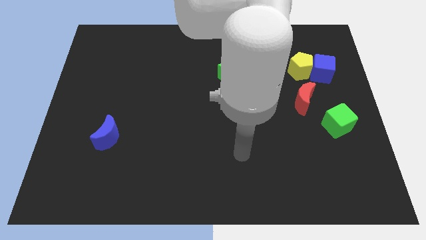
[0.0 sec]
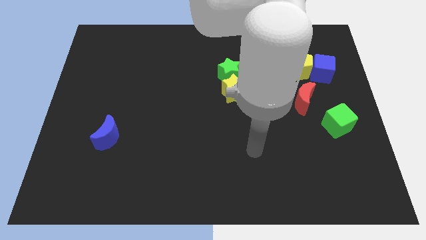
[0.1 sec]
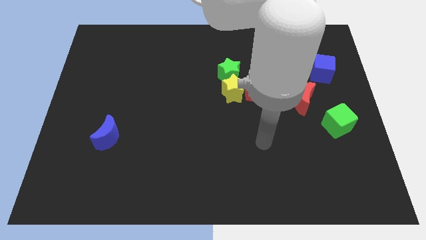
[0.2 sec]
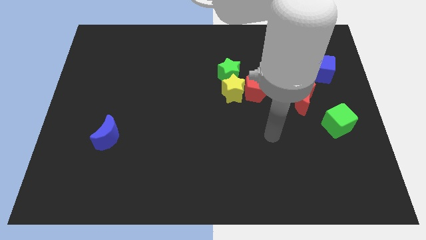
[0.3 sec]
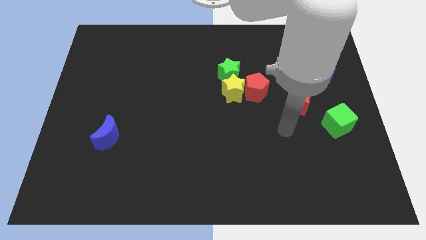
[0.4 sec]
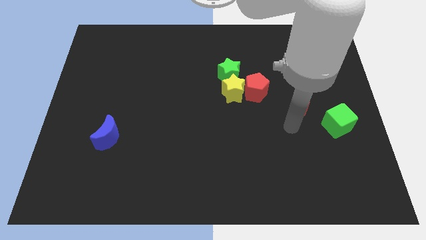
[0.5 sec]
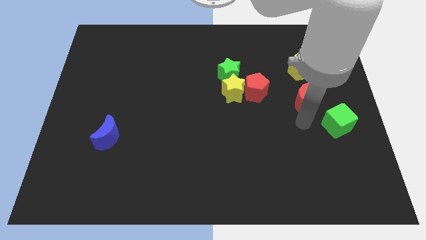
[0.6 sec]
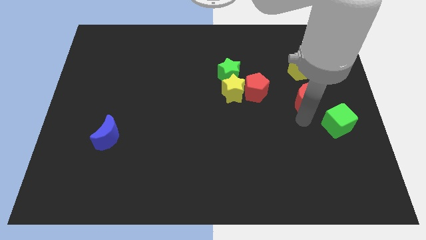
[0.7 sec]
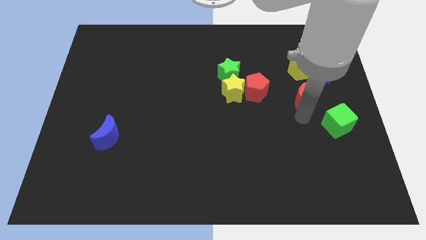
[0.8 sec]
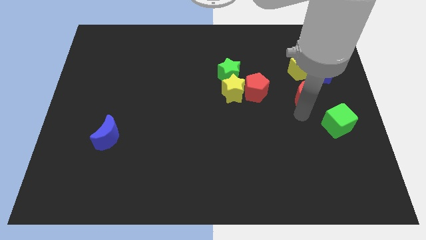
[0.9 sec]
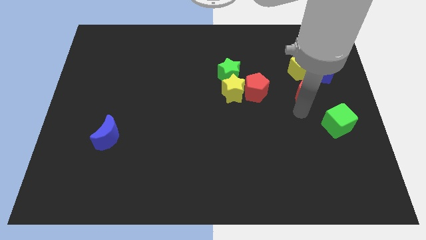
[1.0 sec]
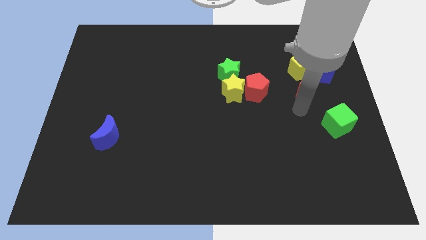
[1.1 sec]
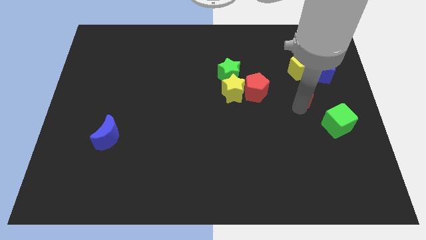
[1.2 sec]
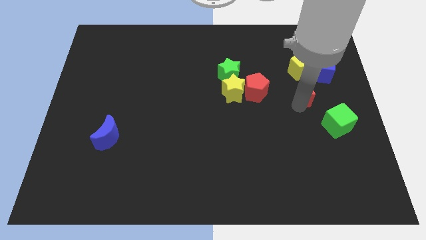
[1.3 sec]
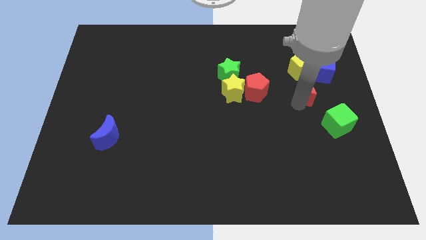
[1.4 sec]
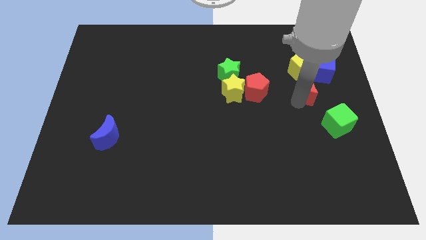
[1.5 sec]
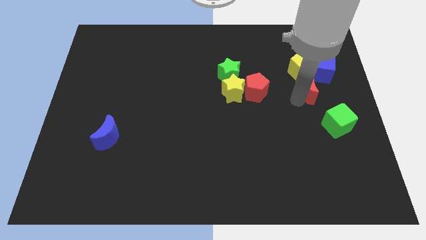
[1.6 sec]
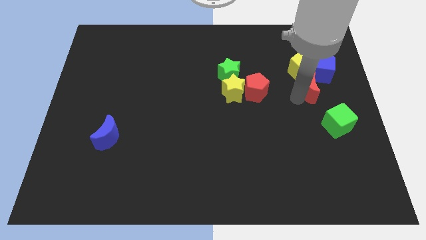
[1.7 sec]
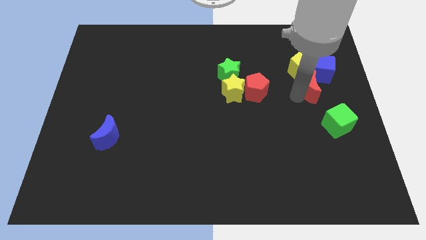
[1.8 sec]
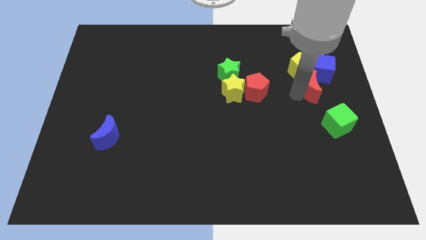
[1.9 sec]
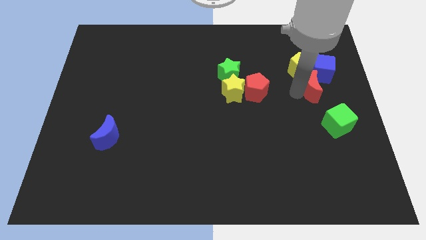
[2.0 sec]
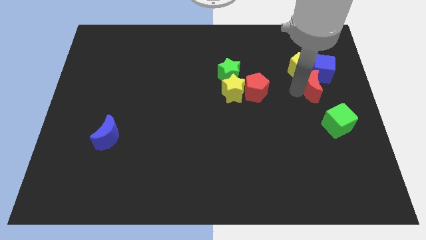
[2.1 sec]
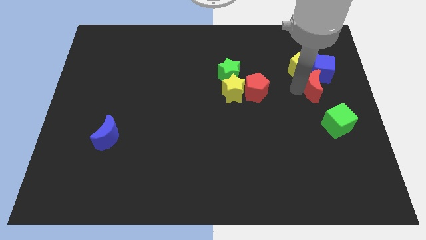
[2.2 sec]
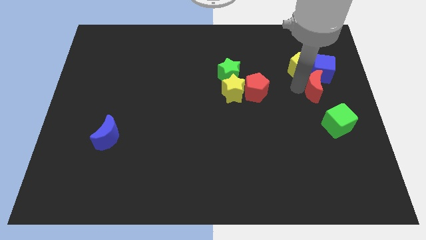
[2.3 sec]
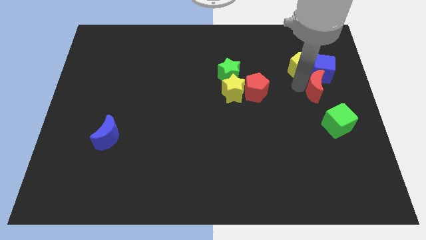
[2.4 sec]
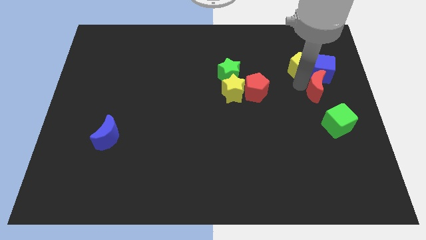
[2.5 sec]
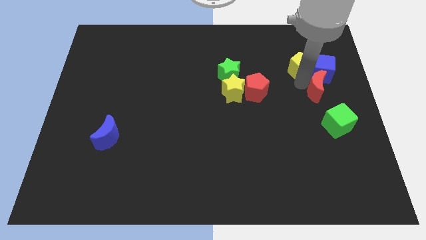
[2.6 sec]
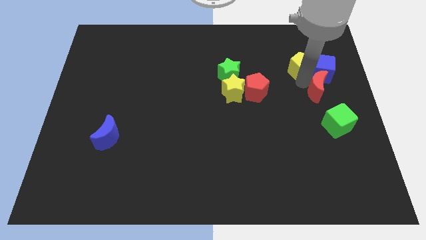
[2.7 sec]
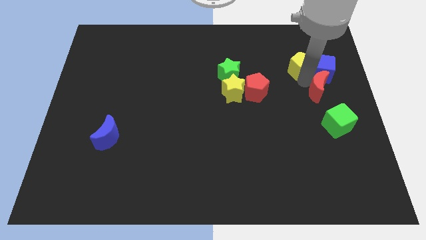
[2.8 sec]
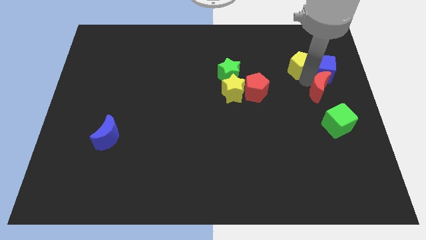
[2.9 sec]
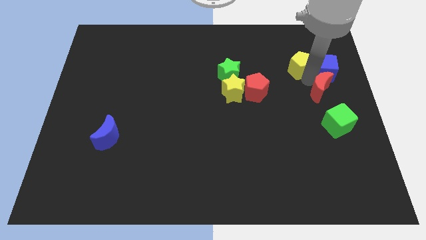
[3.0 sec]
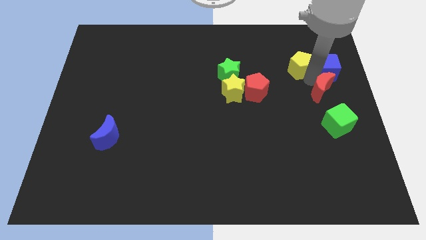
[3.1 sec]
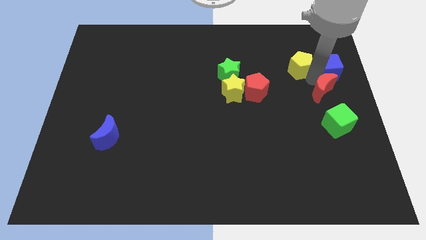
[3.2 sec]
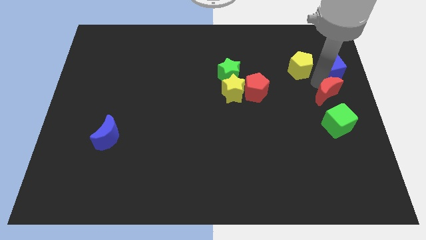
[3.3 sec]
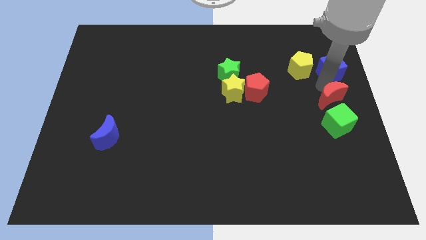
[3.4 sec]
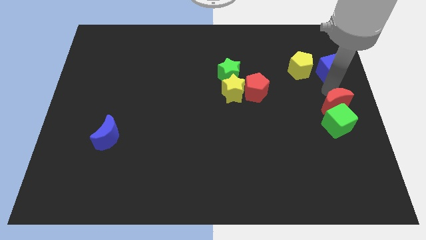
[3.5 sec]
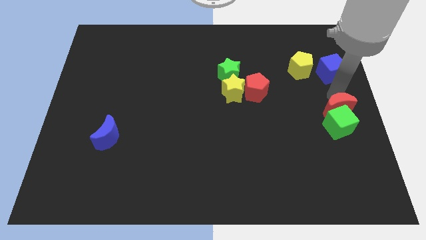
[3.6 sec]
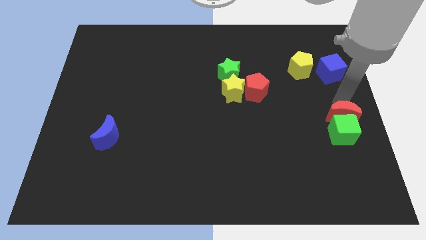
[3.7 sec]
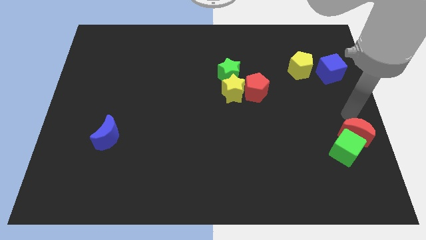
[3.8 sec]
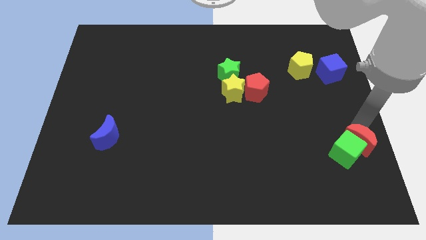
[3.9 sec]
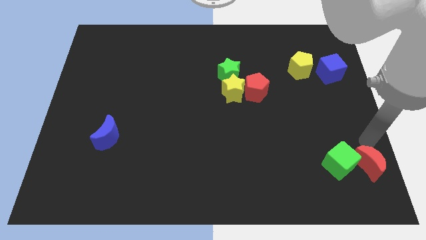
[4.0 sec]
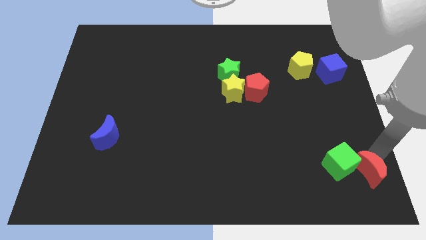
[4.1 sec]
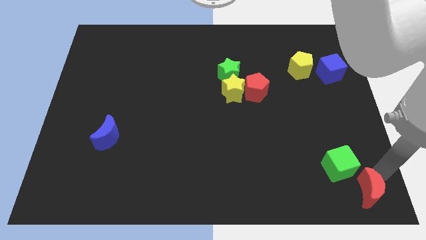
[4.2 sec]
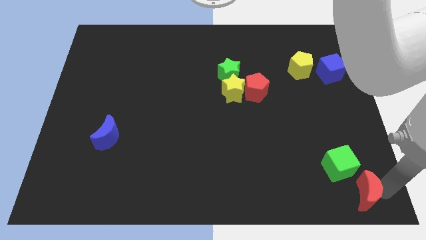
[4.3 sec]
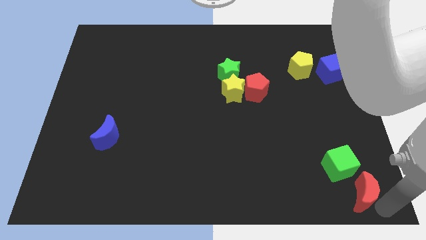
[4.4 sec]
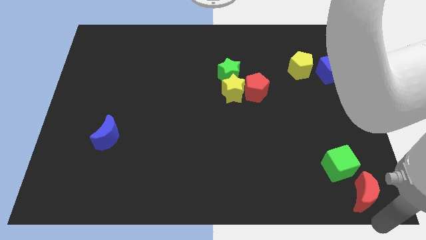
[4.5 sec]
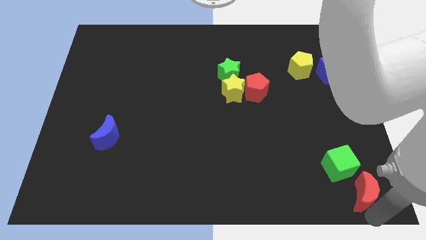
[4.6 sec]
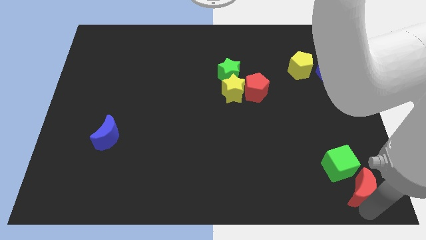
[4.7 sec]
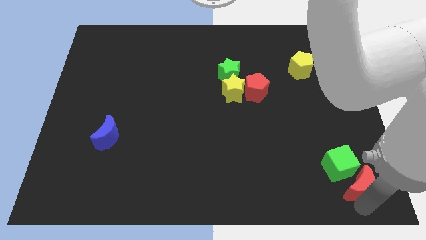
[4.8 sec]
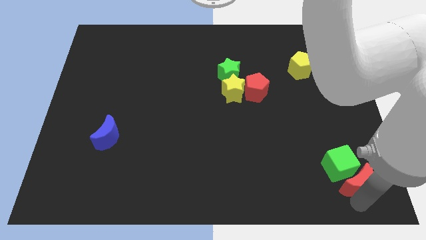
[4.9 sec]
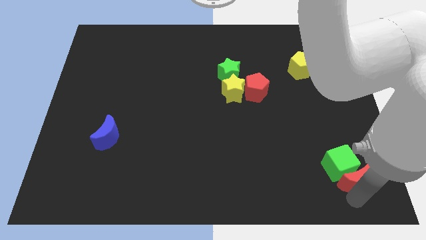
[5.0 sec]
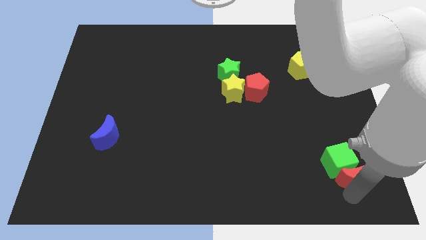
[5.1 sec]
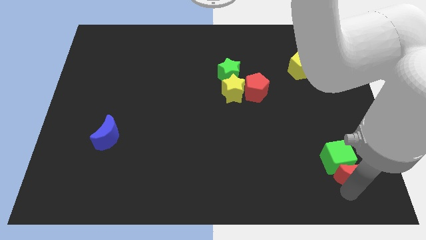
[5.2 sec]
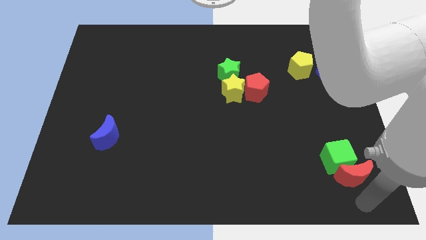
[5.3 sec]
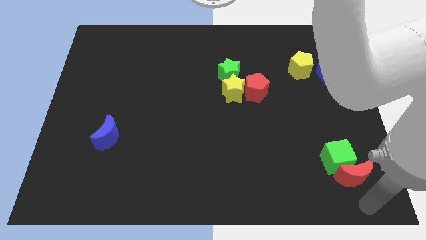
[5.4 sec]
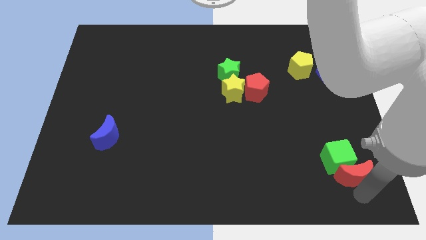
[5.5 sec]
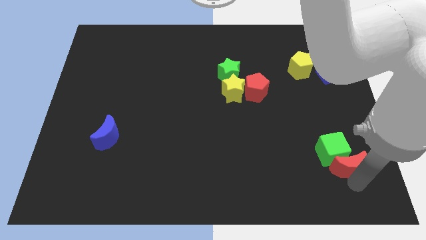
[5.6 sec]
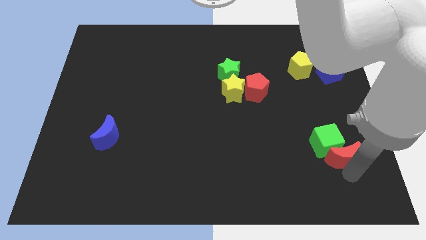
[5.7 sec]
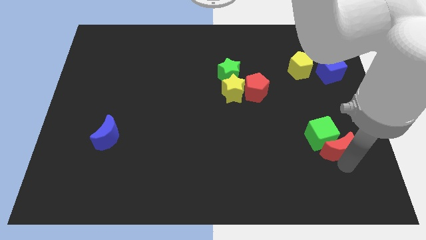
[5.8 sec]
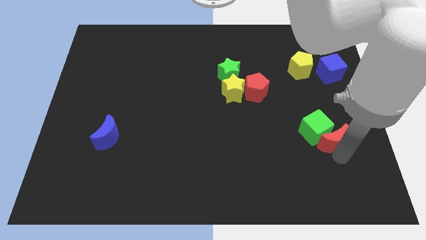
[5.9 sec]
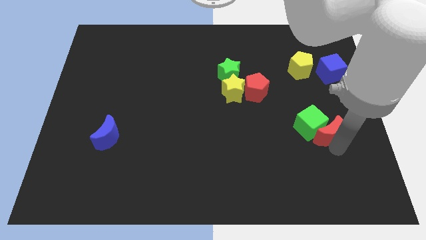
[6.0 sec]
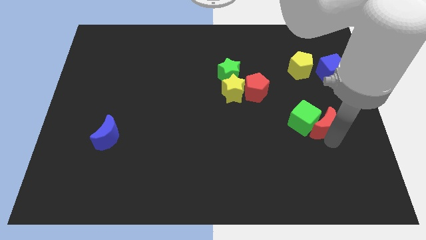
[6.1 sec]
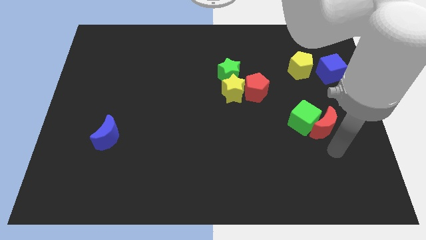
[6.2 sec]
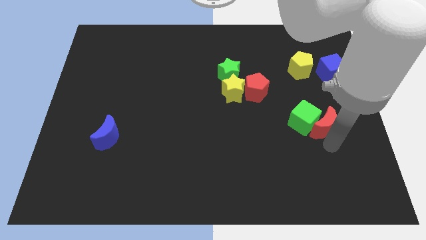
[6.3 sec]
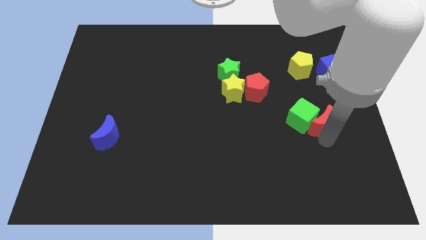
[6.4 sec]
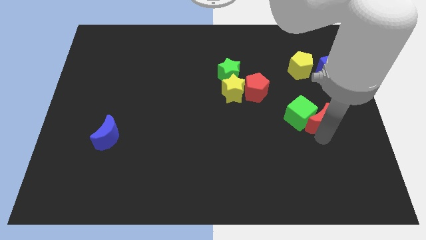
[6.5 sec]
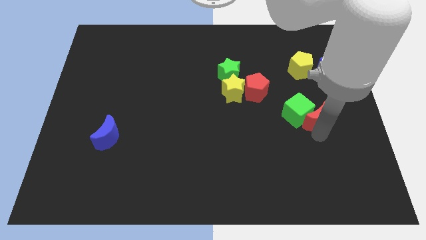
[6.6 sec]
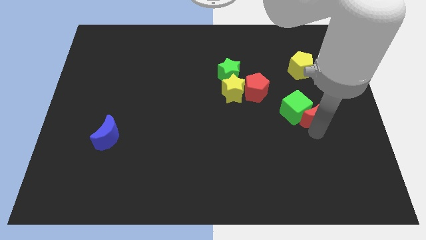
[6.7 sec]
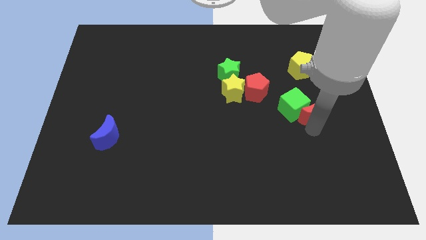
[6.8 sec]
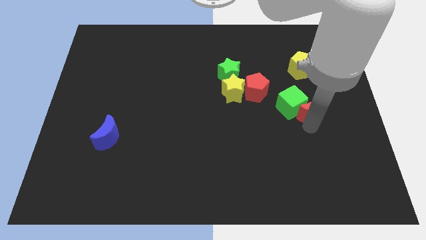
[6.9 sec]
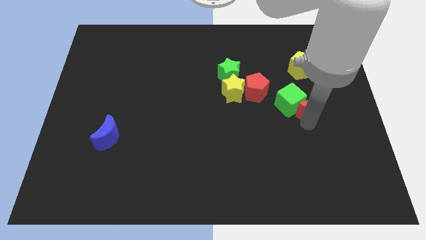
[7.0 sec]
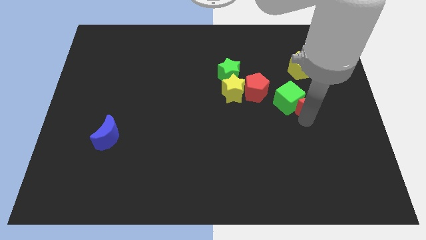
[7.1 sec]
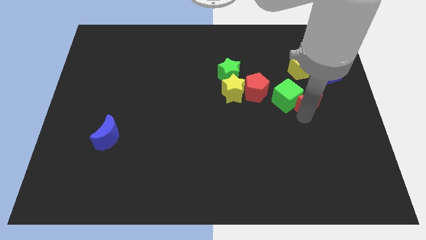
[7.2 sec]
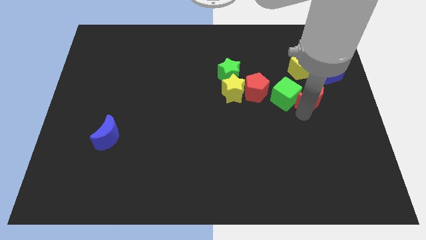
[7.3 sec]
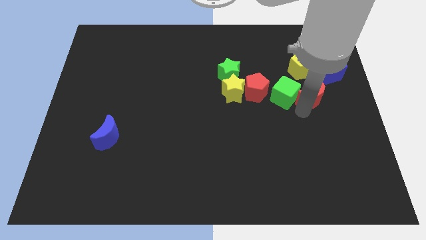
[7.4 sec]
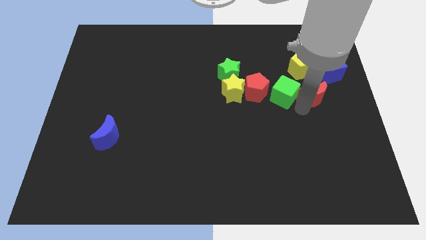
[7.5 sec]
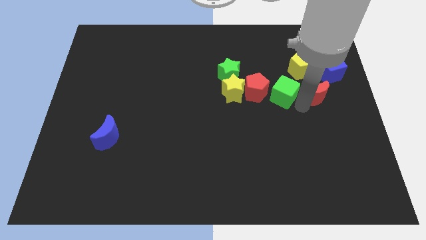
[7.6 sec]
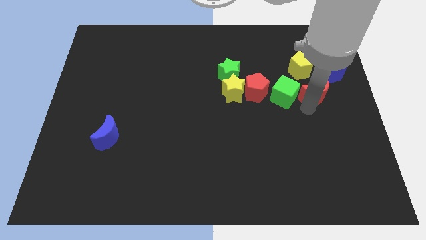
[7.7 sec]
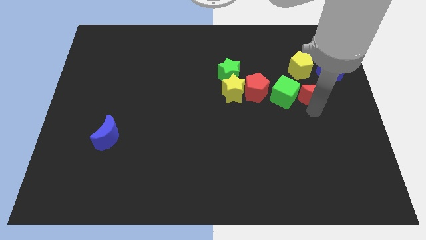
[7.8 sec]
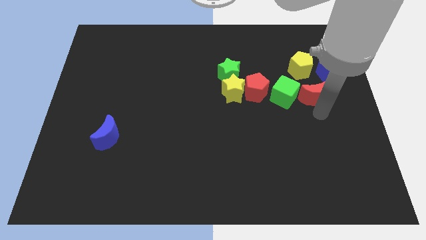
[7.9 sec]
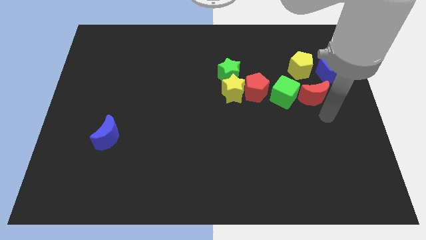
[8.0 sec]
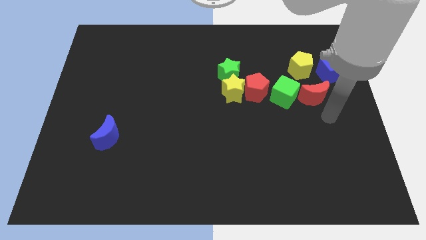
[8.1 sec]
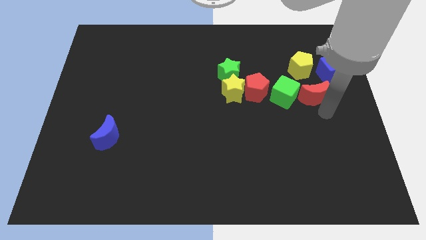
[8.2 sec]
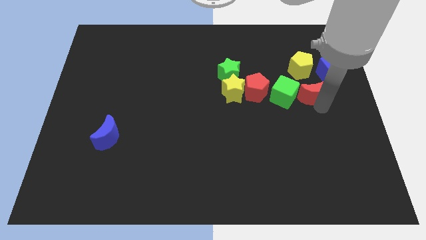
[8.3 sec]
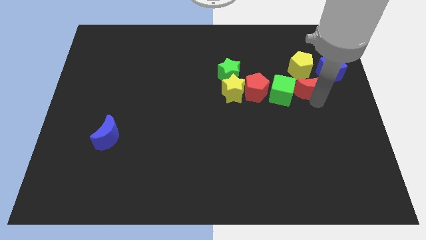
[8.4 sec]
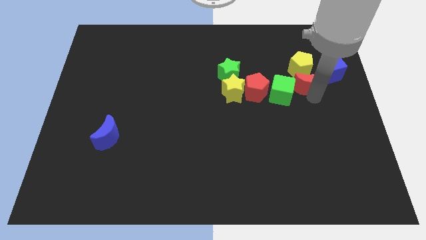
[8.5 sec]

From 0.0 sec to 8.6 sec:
slide the red moon close to the yellow pentagon
